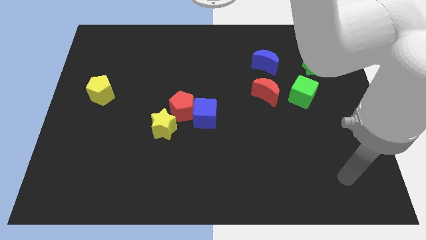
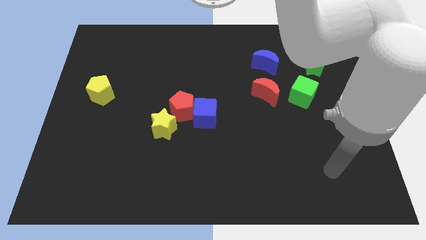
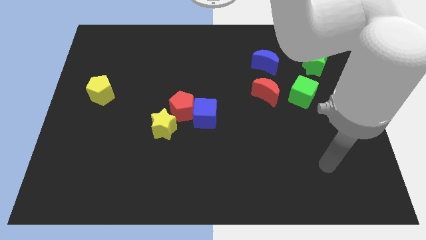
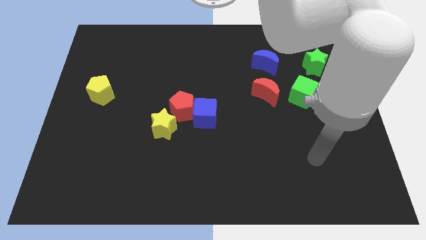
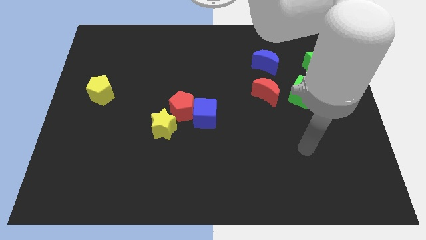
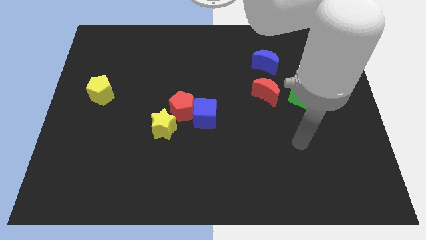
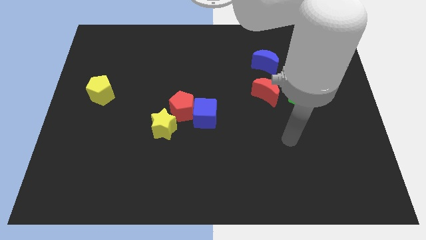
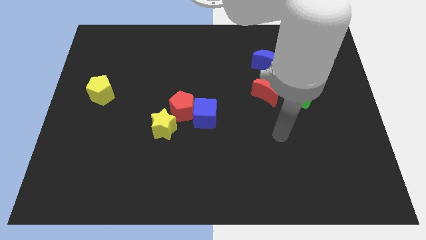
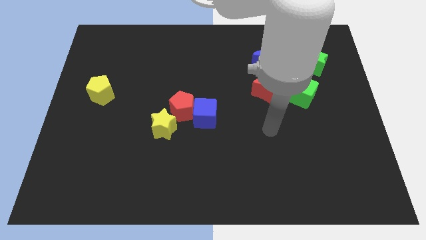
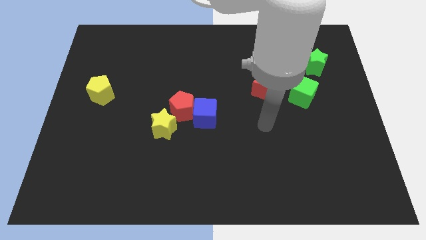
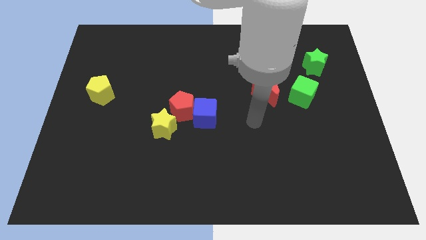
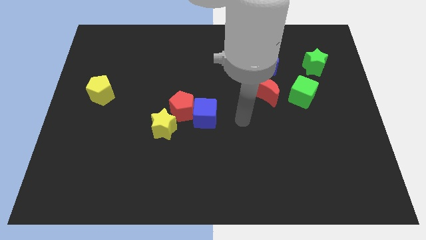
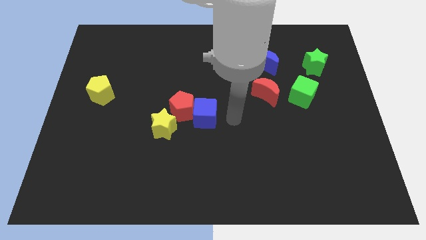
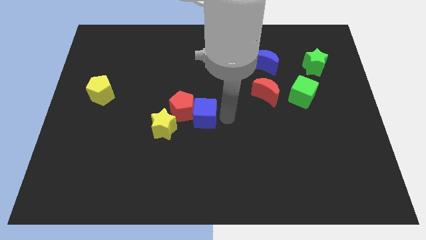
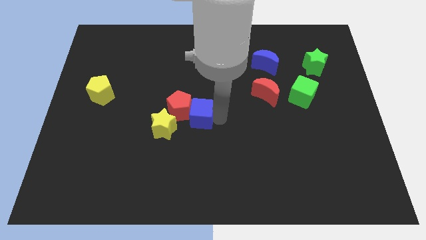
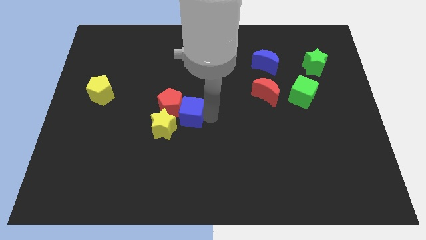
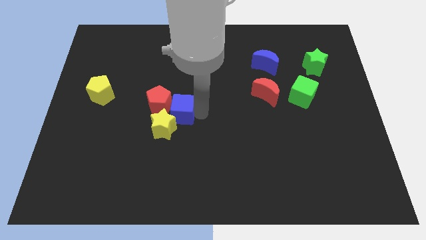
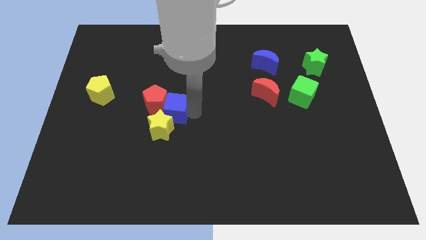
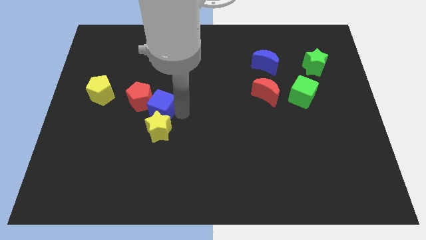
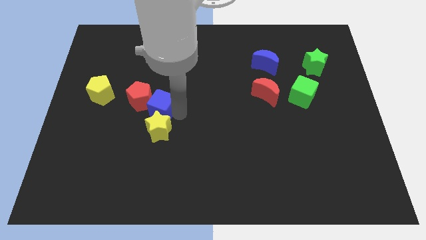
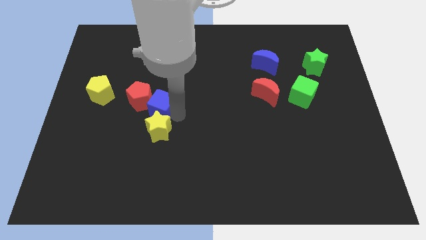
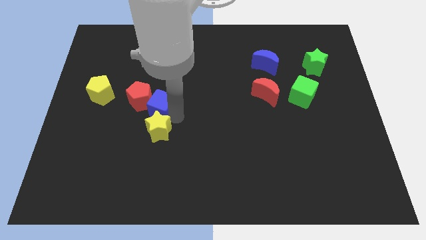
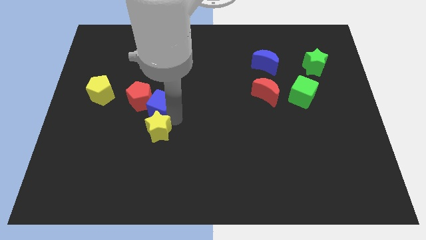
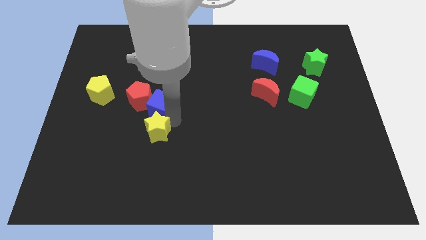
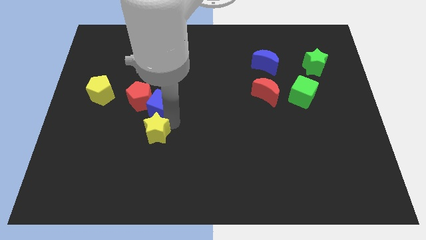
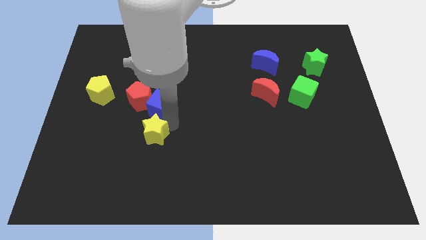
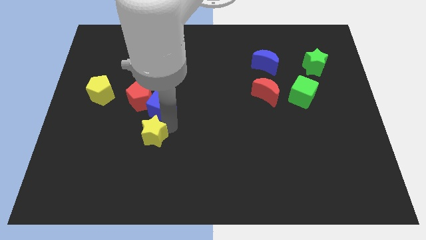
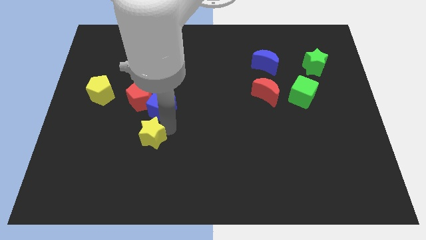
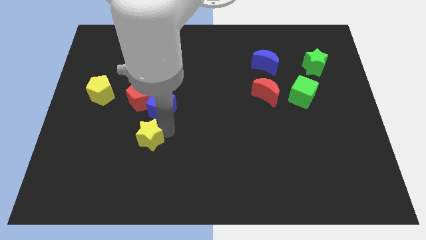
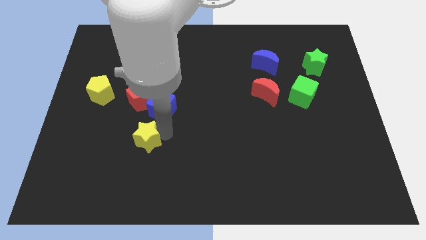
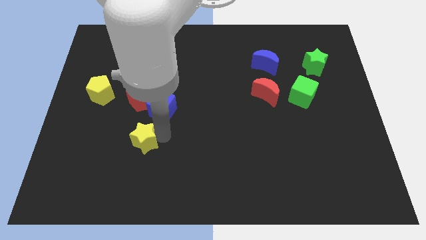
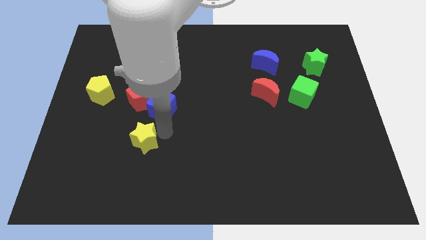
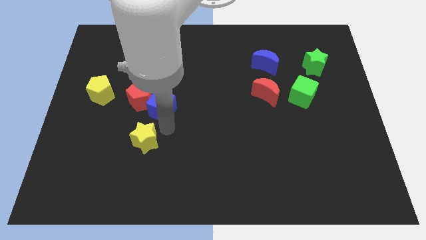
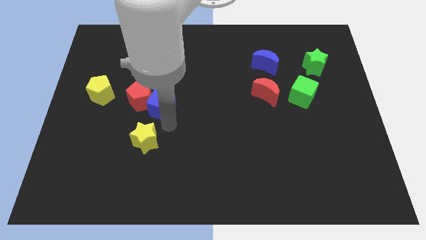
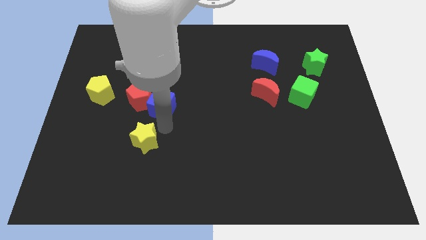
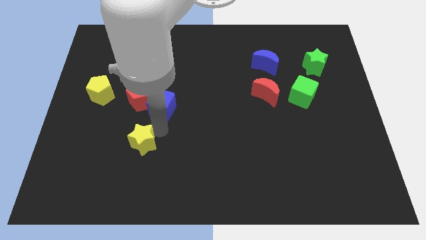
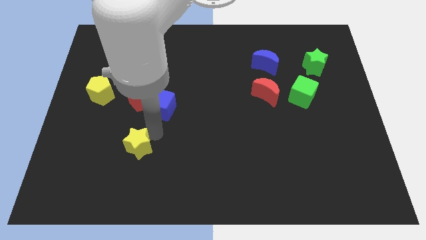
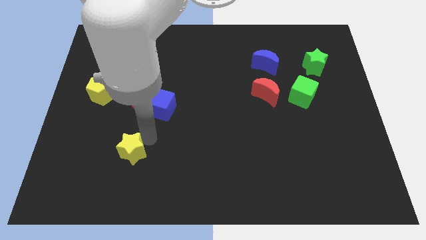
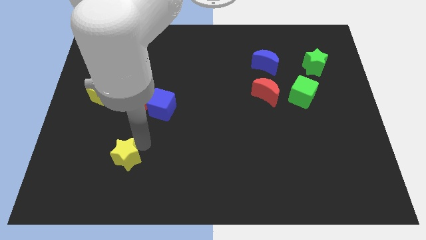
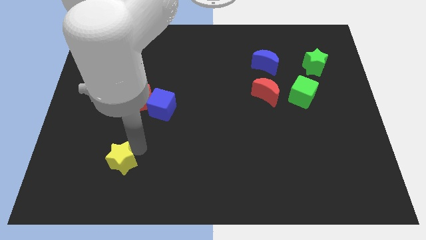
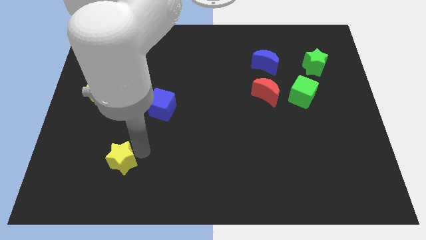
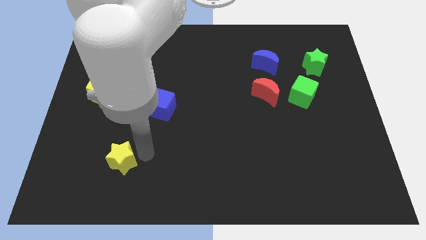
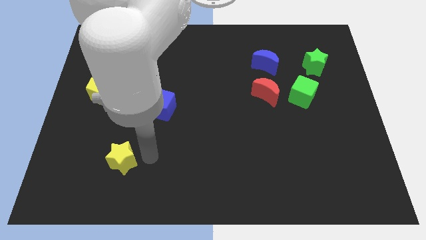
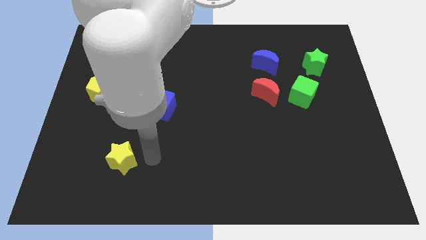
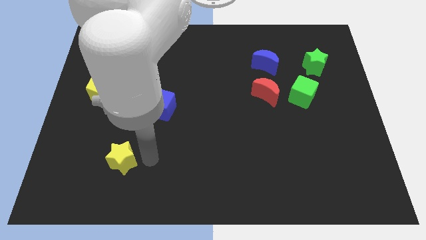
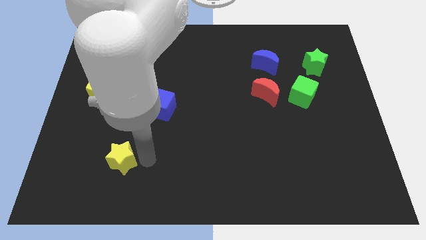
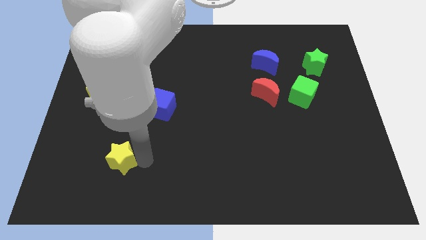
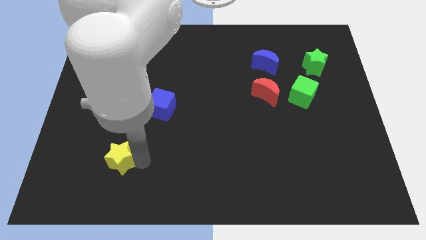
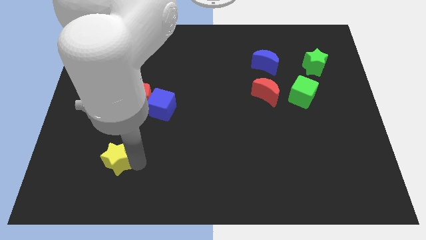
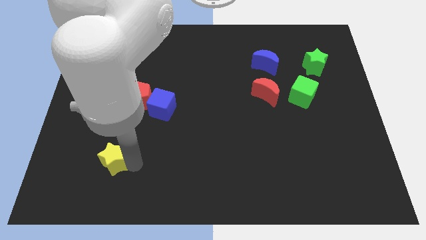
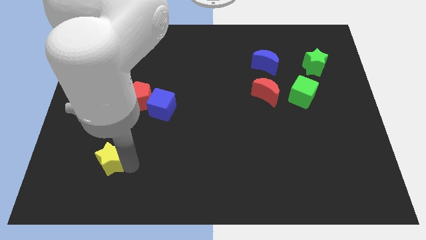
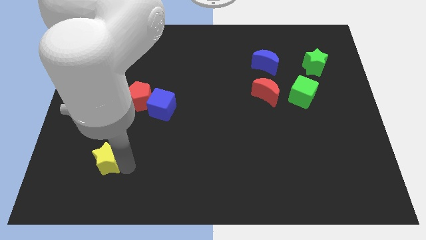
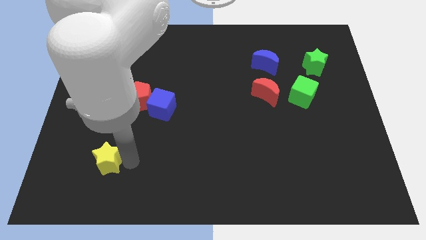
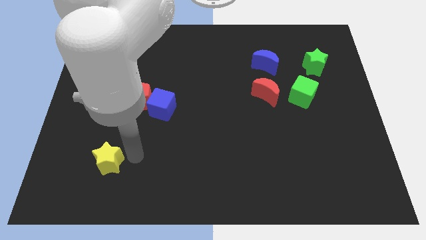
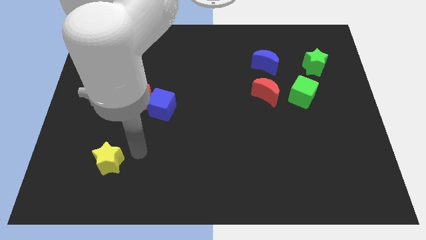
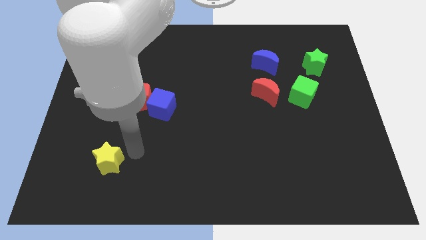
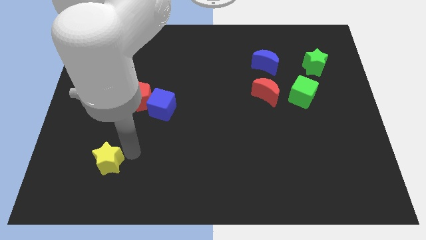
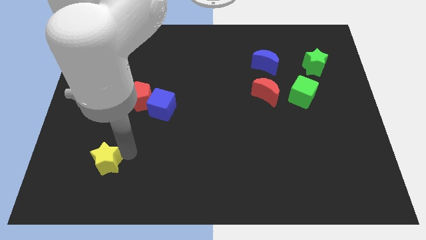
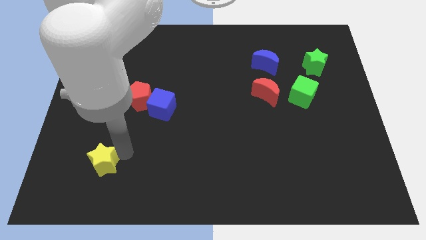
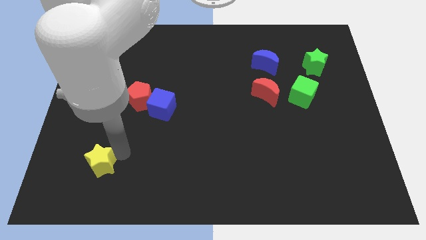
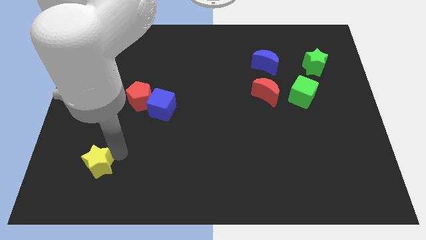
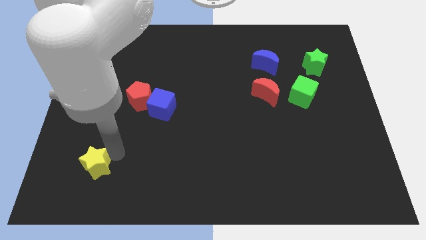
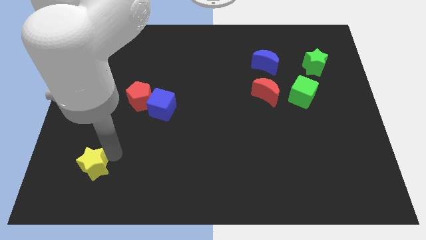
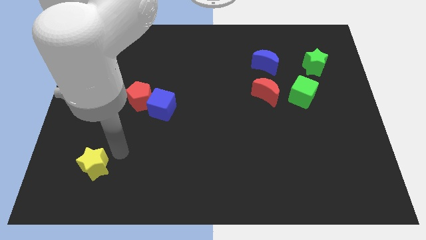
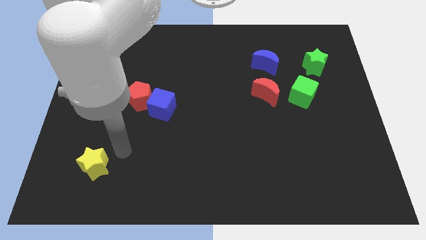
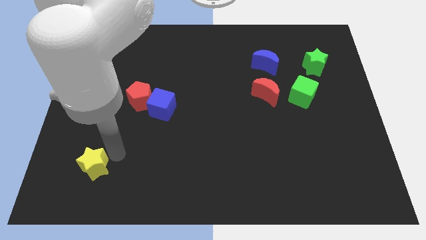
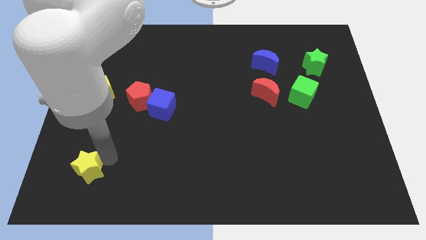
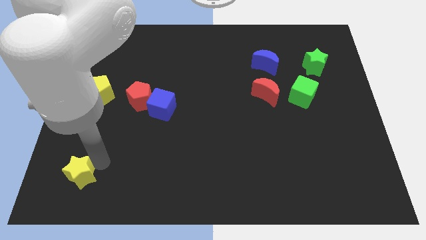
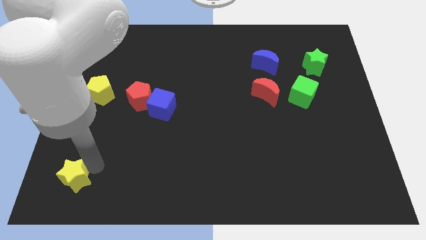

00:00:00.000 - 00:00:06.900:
push the yellow star to the bottom left corner
